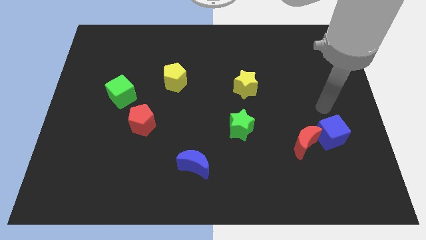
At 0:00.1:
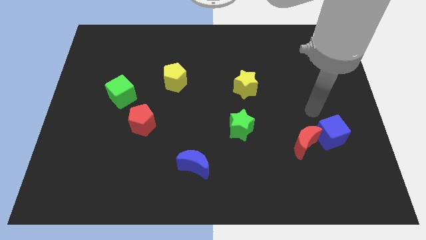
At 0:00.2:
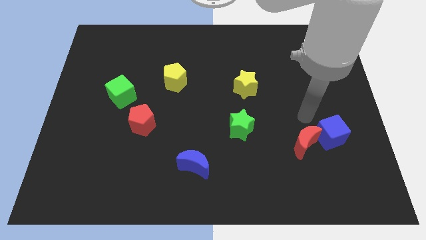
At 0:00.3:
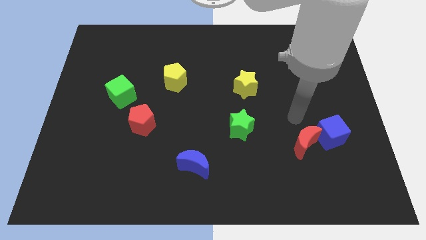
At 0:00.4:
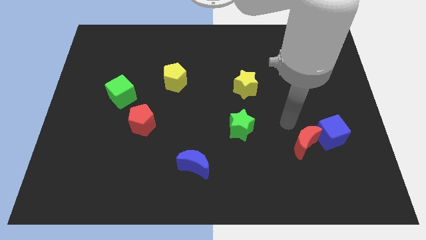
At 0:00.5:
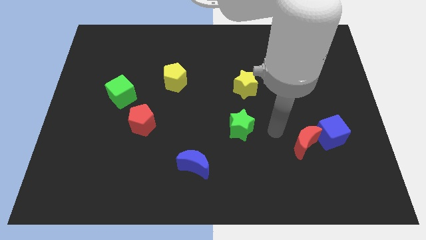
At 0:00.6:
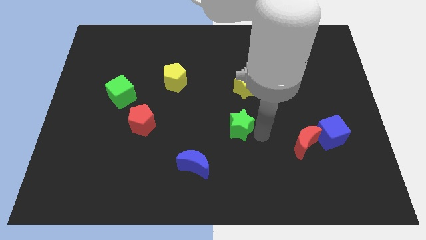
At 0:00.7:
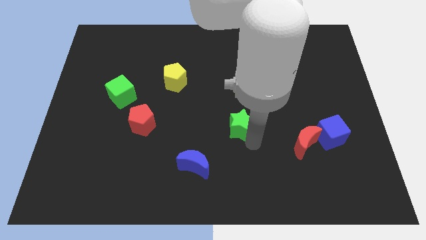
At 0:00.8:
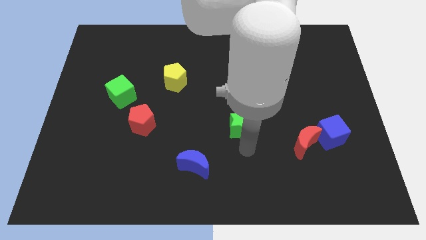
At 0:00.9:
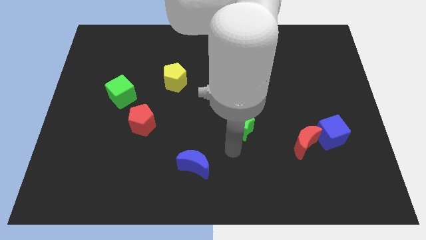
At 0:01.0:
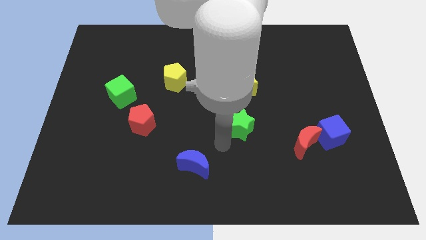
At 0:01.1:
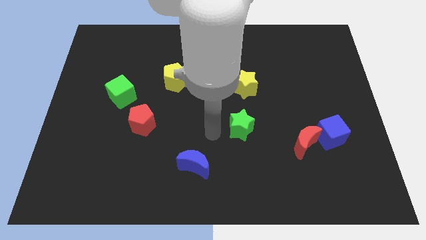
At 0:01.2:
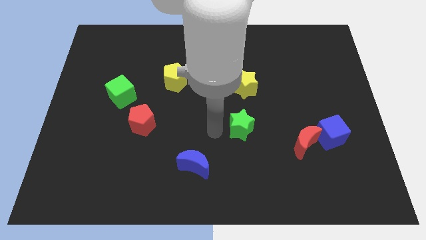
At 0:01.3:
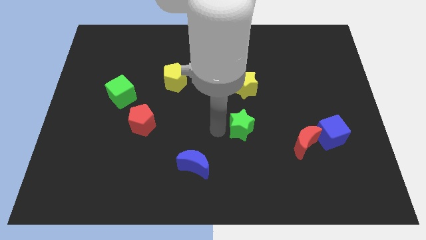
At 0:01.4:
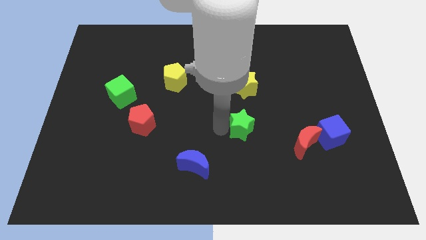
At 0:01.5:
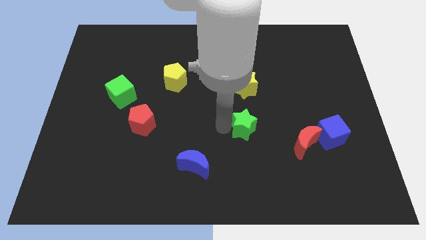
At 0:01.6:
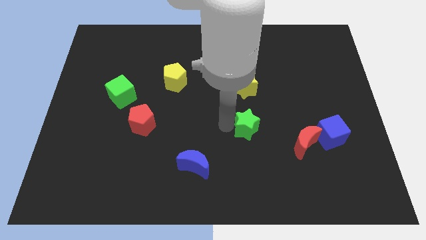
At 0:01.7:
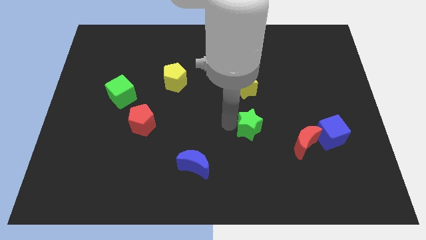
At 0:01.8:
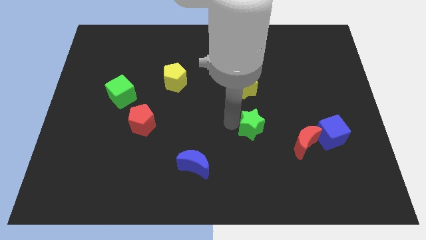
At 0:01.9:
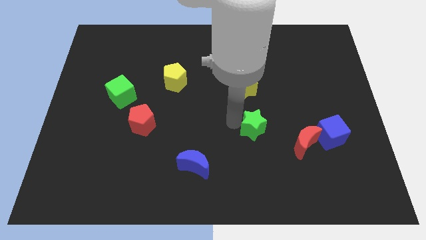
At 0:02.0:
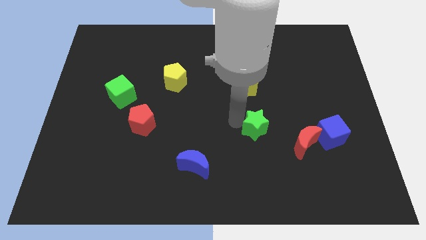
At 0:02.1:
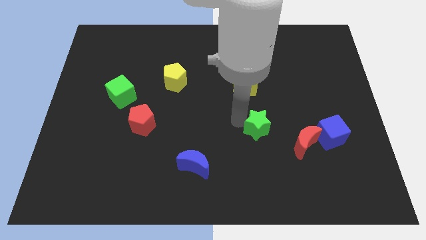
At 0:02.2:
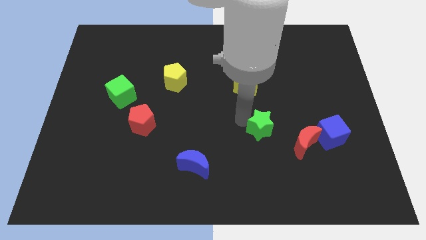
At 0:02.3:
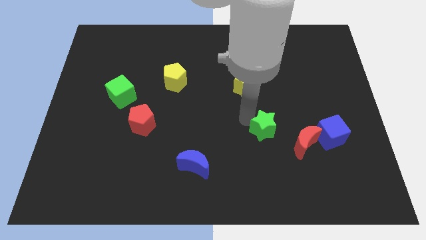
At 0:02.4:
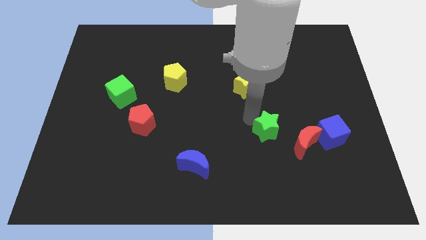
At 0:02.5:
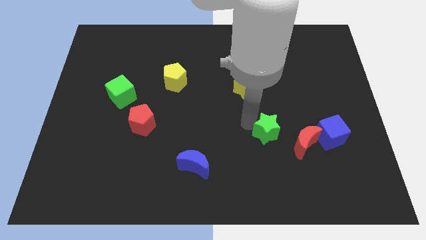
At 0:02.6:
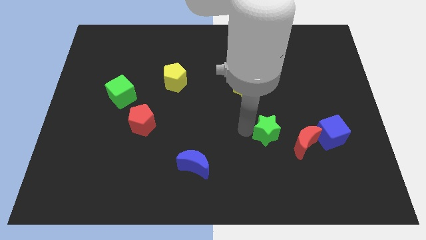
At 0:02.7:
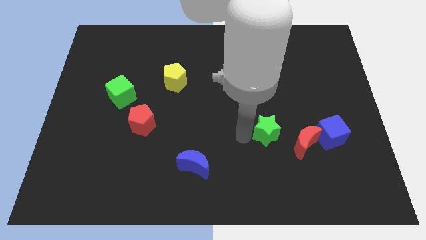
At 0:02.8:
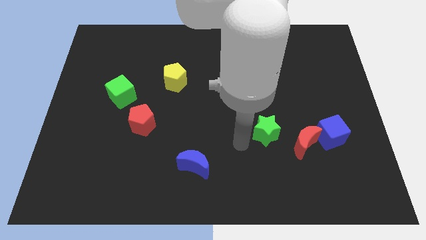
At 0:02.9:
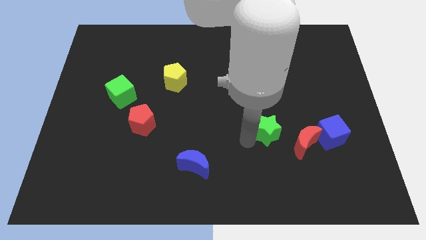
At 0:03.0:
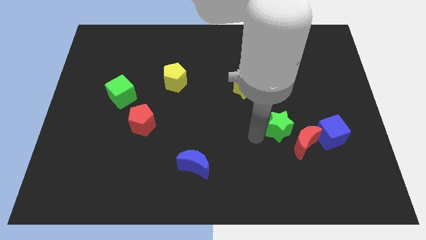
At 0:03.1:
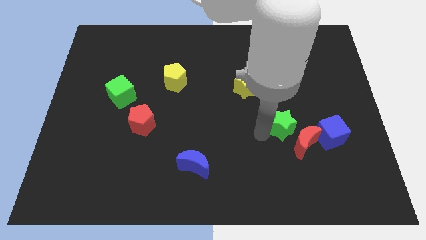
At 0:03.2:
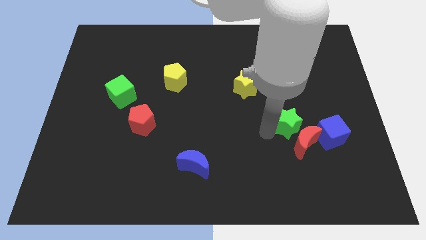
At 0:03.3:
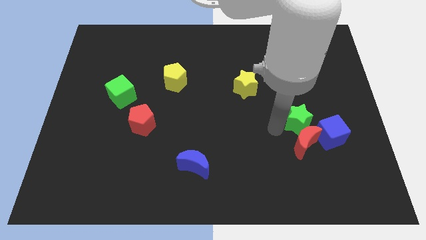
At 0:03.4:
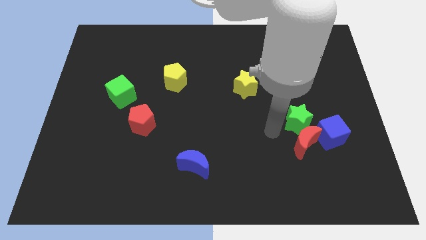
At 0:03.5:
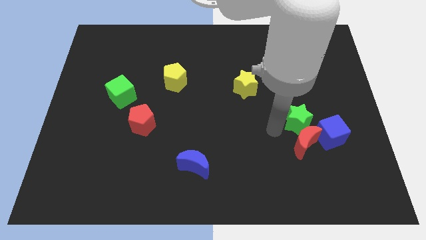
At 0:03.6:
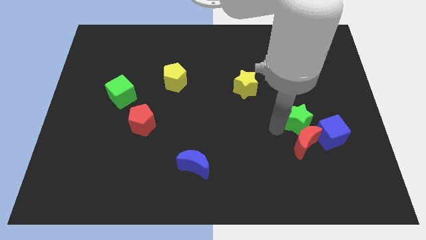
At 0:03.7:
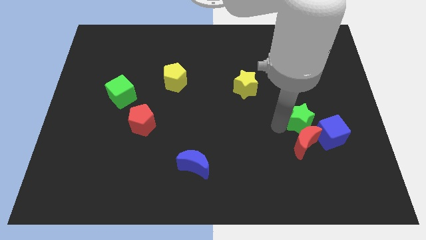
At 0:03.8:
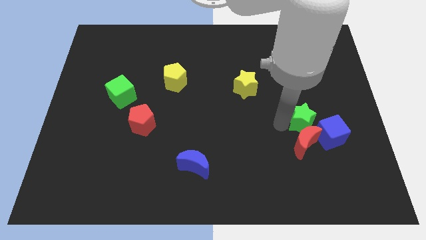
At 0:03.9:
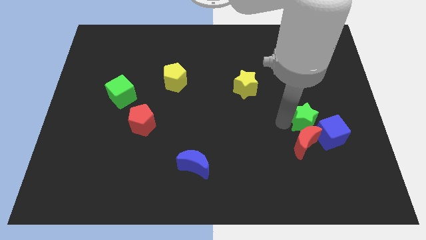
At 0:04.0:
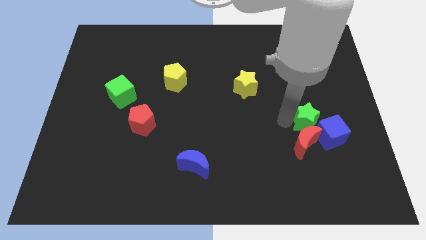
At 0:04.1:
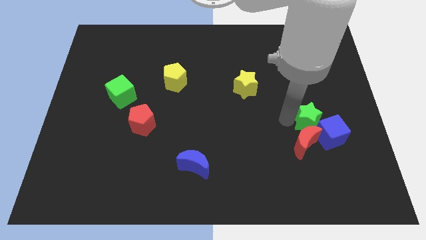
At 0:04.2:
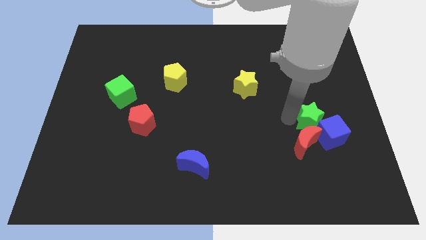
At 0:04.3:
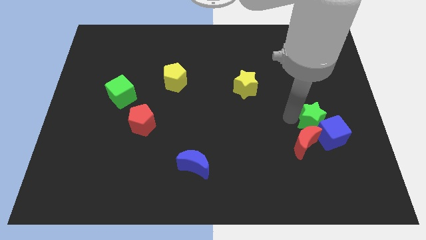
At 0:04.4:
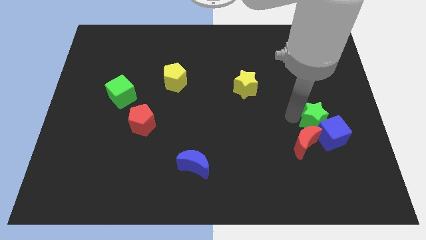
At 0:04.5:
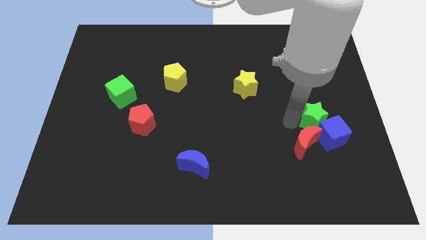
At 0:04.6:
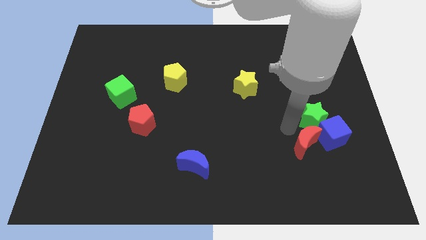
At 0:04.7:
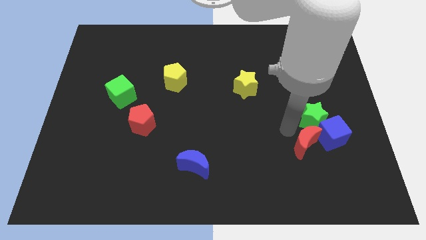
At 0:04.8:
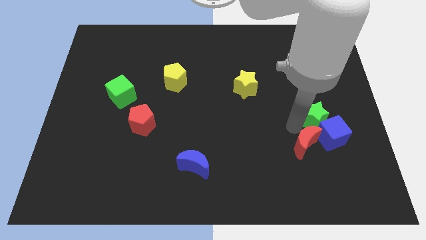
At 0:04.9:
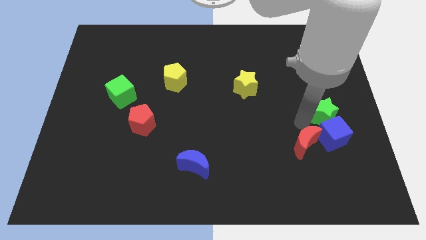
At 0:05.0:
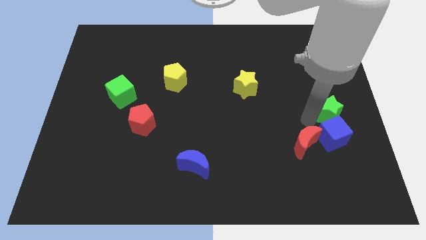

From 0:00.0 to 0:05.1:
move the green star to the right side of the board

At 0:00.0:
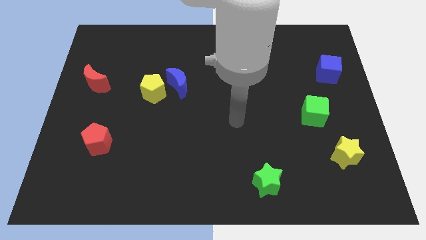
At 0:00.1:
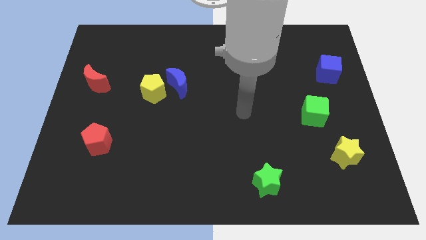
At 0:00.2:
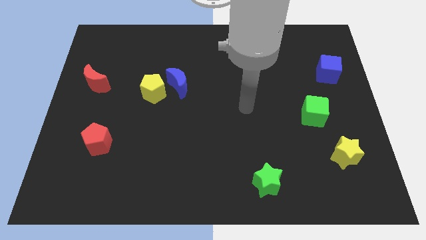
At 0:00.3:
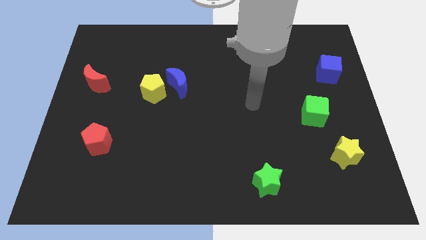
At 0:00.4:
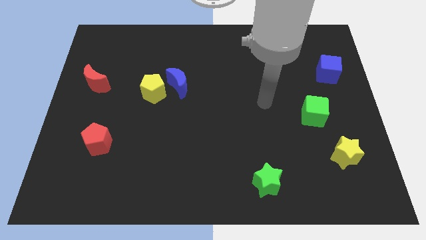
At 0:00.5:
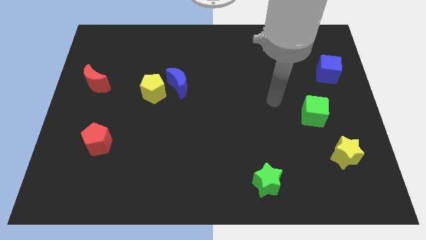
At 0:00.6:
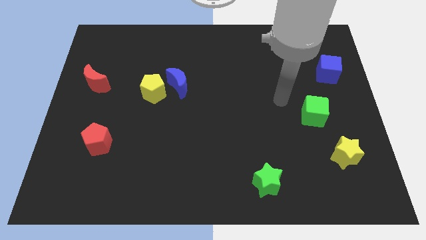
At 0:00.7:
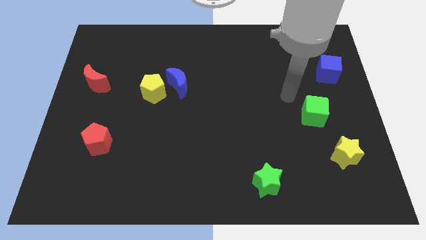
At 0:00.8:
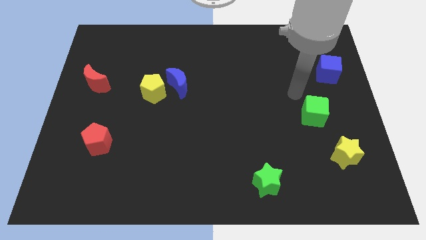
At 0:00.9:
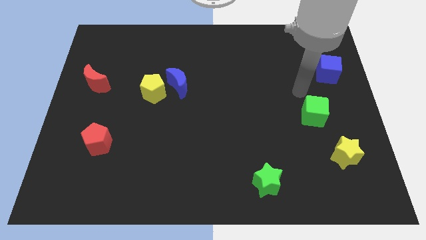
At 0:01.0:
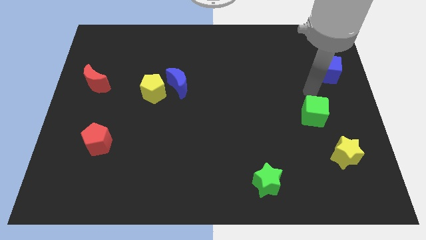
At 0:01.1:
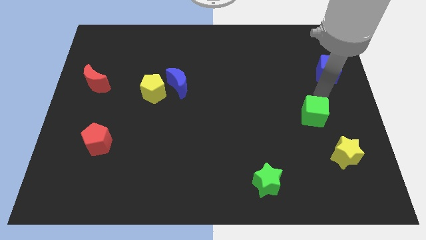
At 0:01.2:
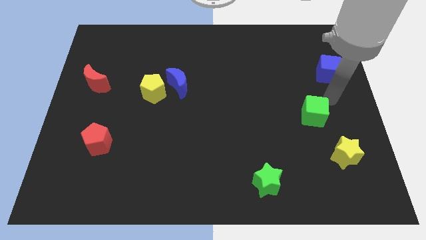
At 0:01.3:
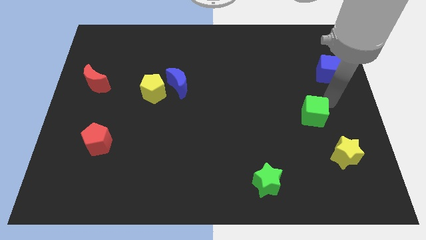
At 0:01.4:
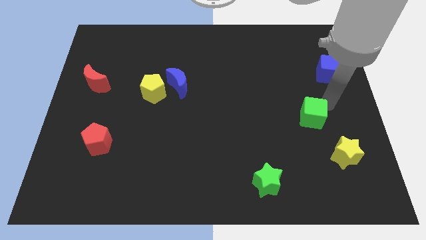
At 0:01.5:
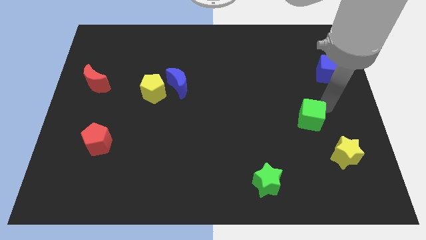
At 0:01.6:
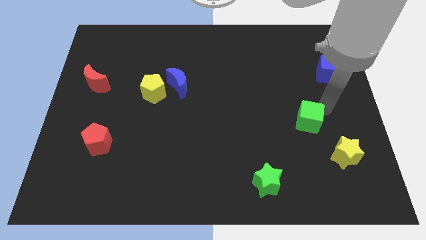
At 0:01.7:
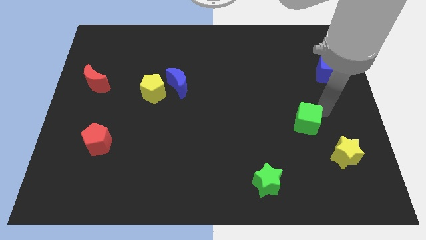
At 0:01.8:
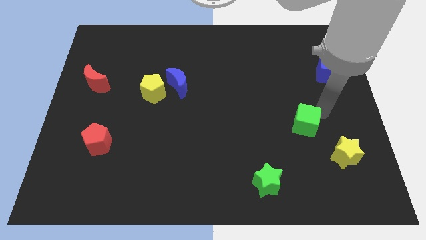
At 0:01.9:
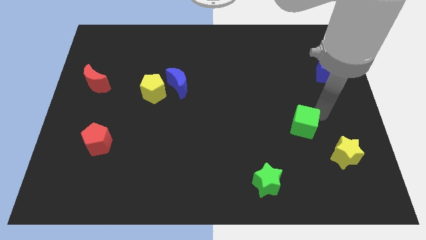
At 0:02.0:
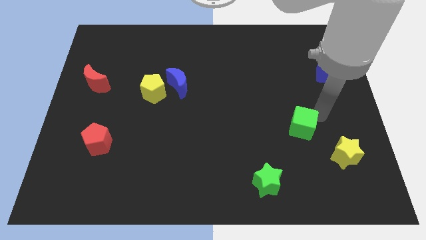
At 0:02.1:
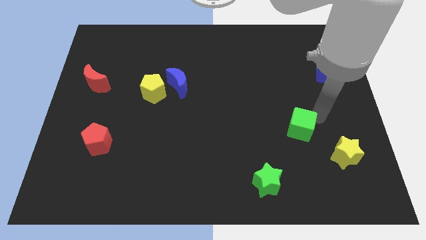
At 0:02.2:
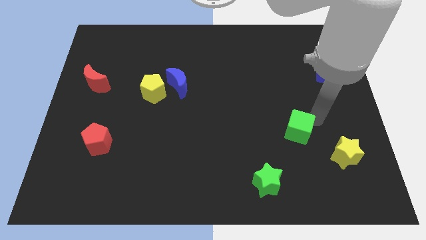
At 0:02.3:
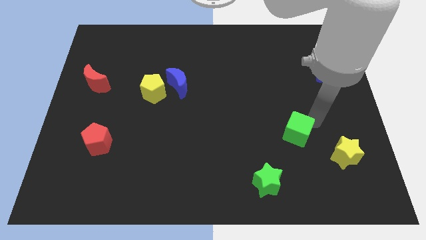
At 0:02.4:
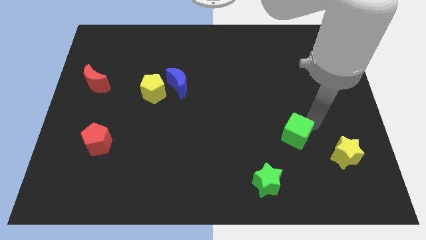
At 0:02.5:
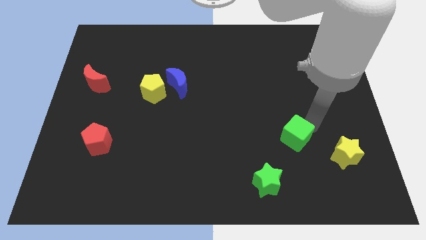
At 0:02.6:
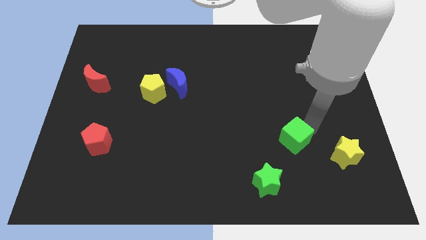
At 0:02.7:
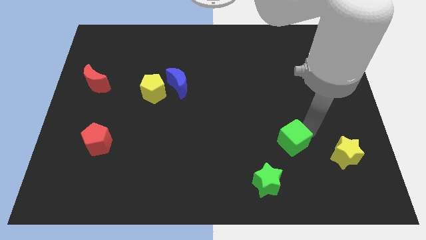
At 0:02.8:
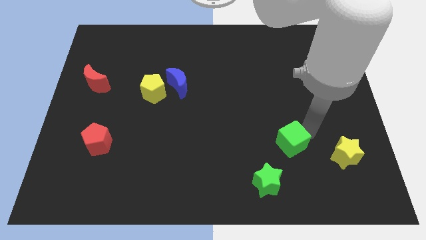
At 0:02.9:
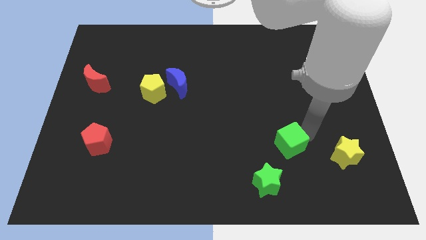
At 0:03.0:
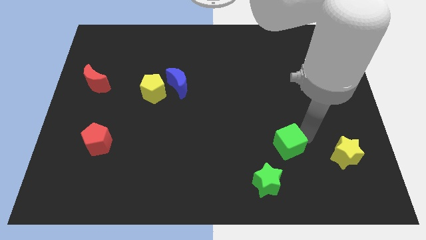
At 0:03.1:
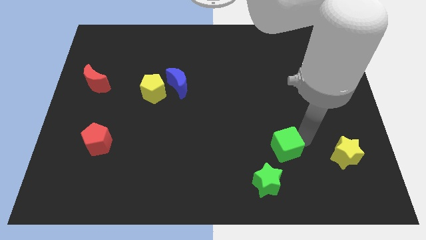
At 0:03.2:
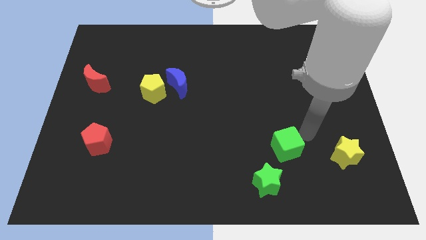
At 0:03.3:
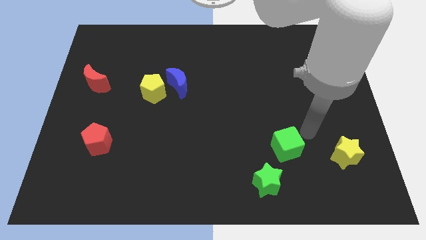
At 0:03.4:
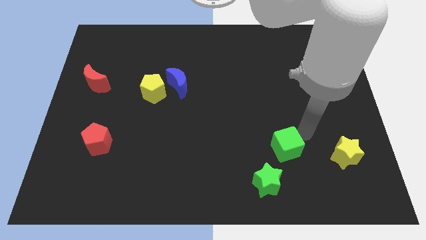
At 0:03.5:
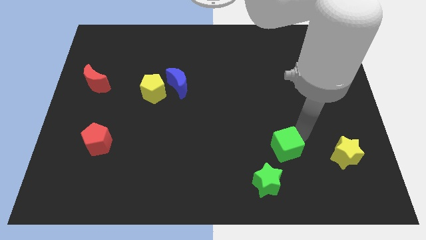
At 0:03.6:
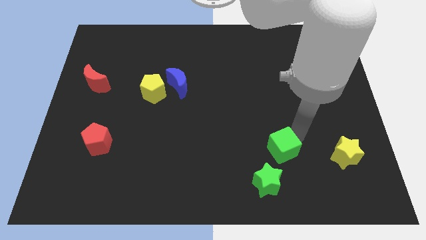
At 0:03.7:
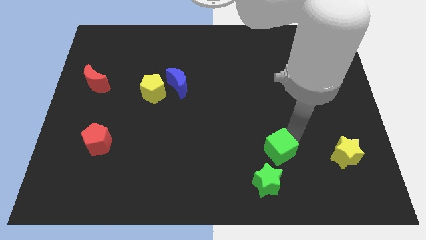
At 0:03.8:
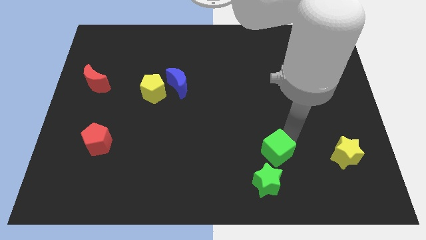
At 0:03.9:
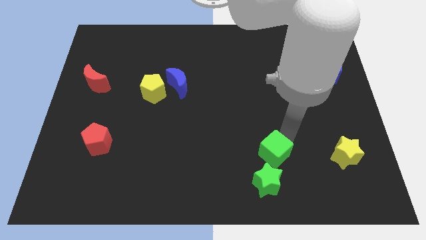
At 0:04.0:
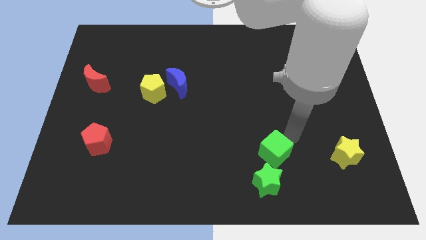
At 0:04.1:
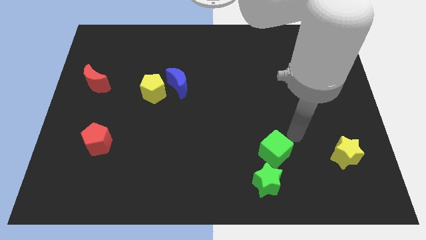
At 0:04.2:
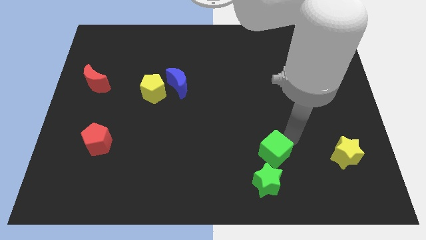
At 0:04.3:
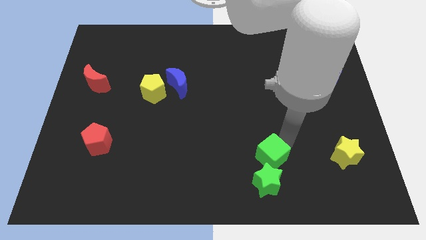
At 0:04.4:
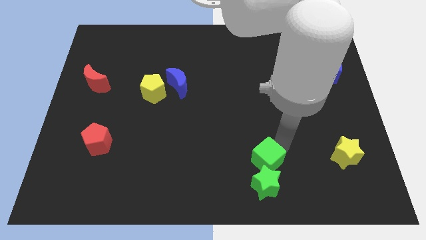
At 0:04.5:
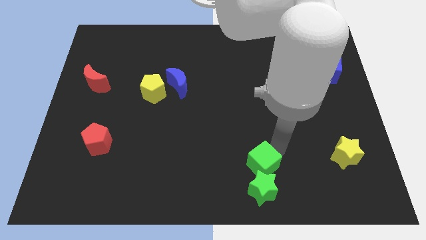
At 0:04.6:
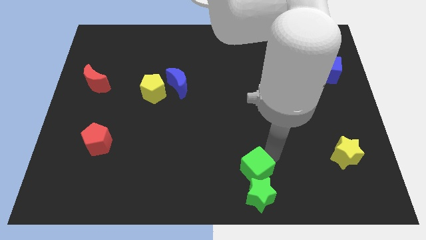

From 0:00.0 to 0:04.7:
push the green cube to the bottom
